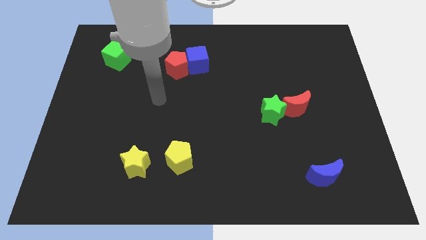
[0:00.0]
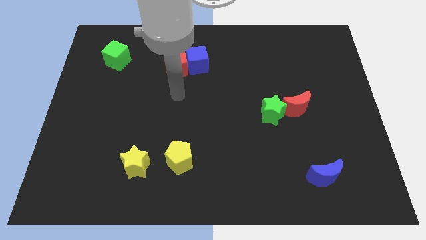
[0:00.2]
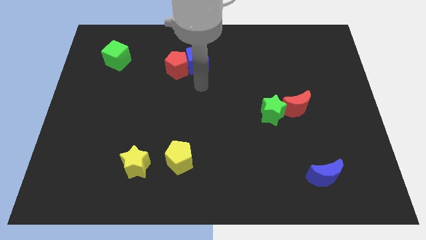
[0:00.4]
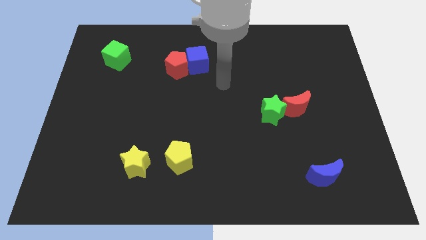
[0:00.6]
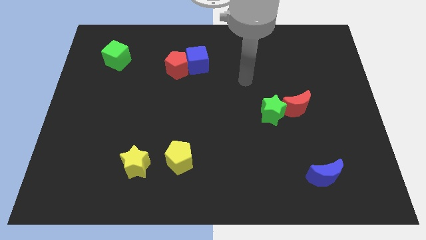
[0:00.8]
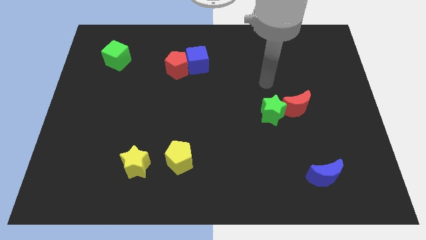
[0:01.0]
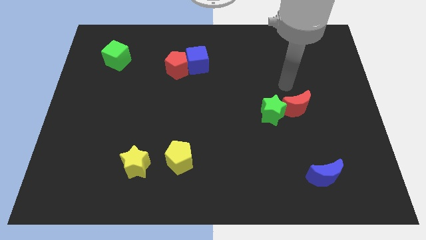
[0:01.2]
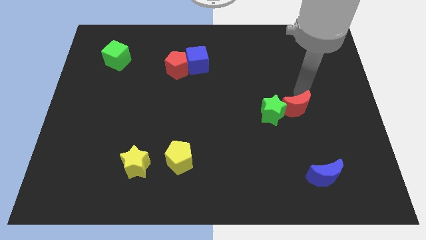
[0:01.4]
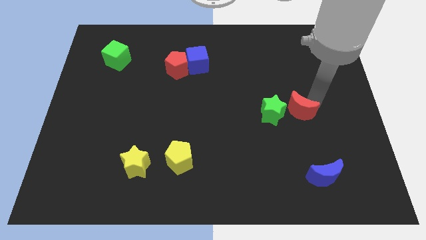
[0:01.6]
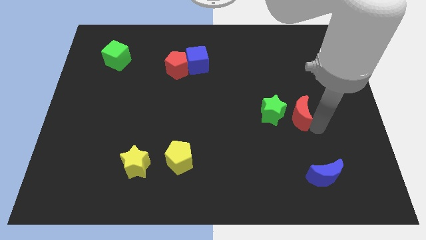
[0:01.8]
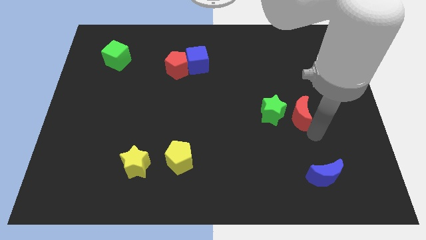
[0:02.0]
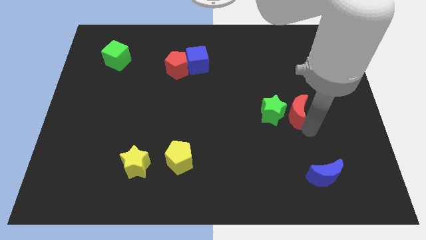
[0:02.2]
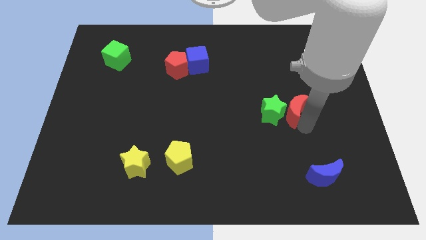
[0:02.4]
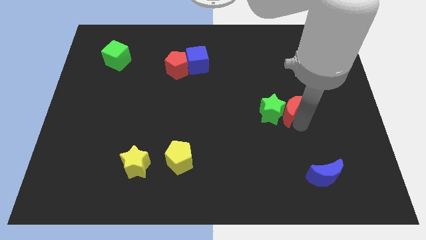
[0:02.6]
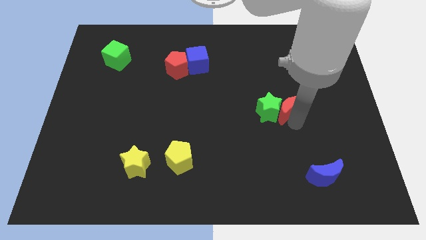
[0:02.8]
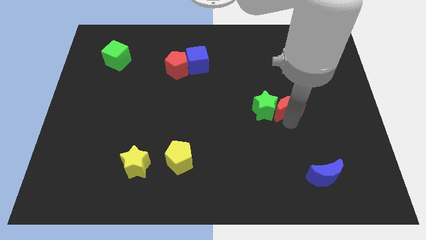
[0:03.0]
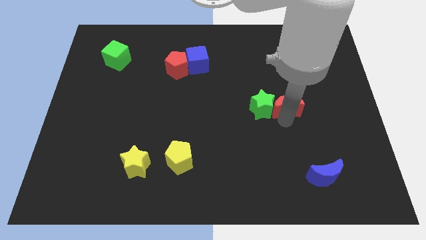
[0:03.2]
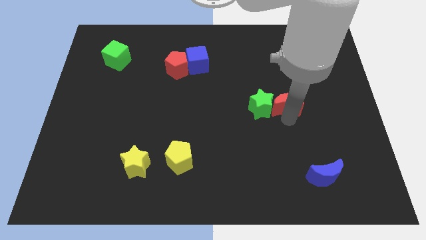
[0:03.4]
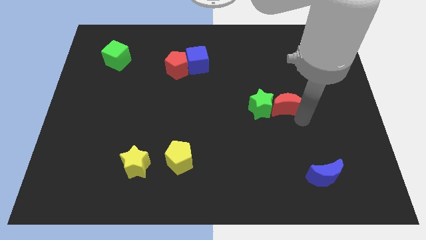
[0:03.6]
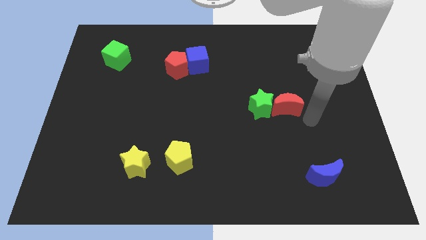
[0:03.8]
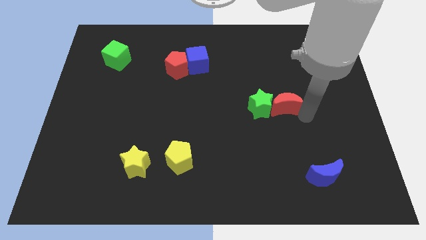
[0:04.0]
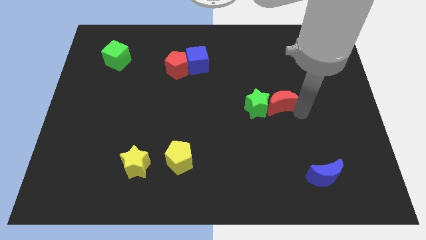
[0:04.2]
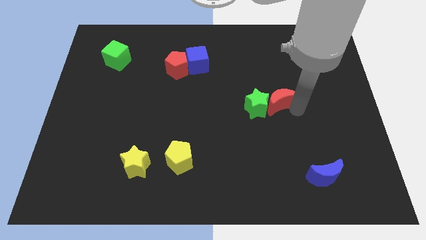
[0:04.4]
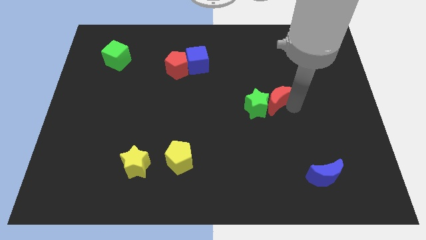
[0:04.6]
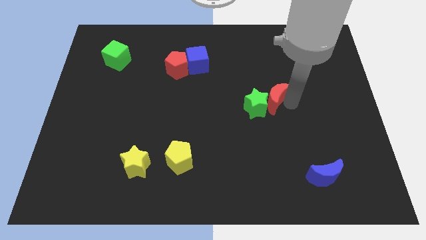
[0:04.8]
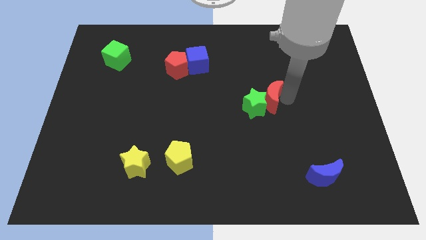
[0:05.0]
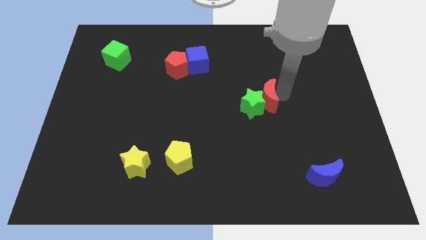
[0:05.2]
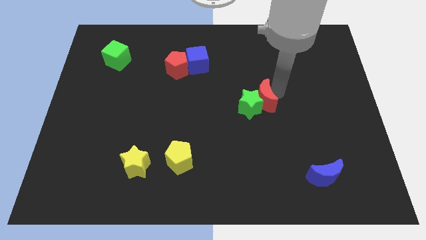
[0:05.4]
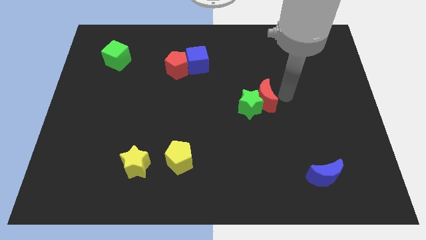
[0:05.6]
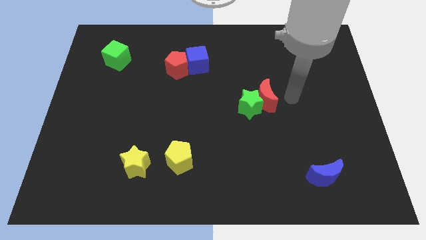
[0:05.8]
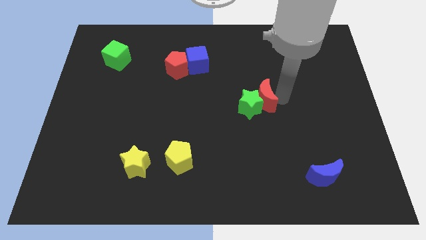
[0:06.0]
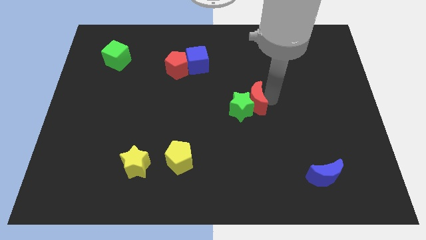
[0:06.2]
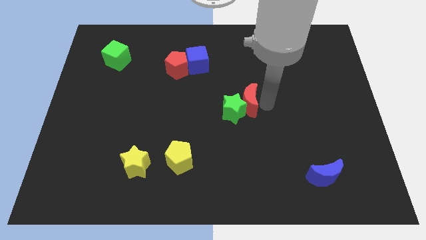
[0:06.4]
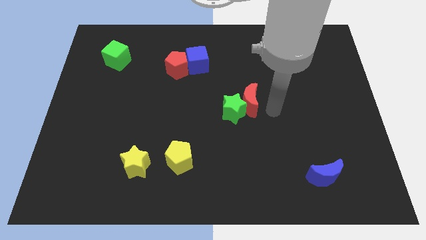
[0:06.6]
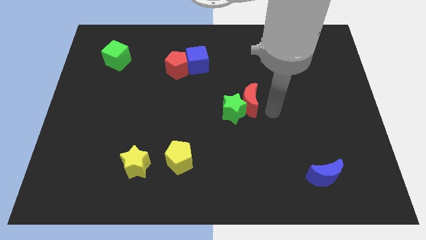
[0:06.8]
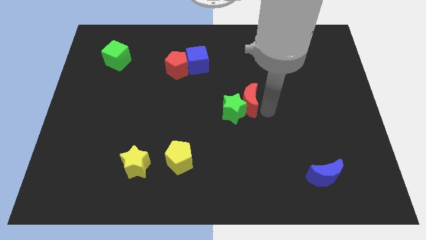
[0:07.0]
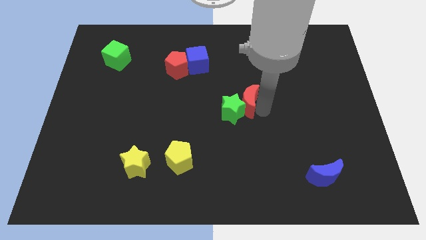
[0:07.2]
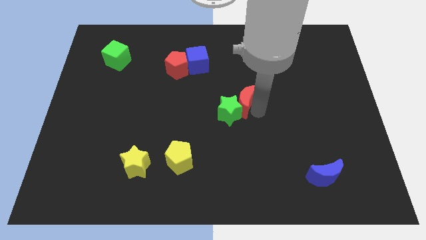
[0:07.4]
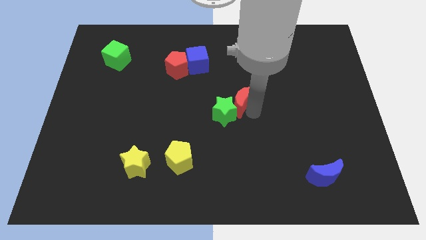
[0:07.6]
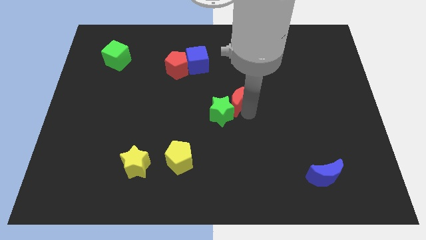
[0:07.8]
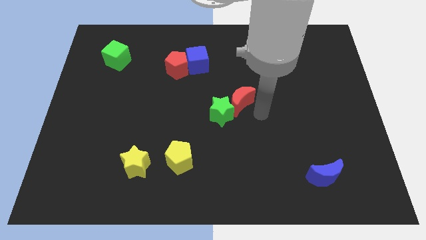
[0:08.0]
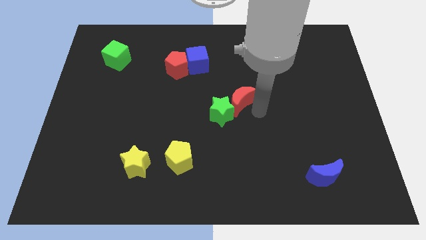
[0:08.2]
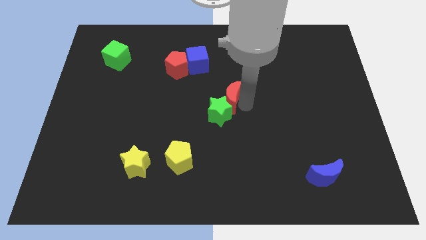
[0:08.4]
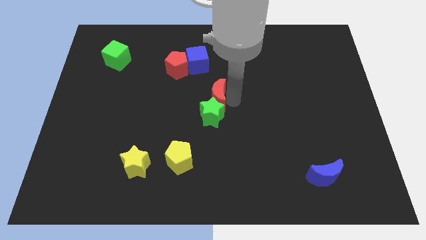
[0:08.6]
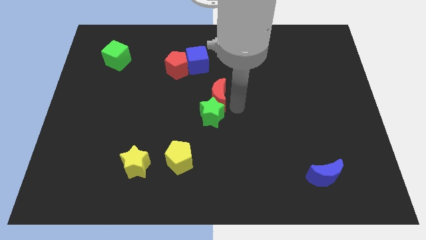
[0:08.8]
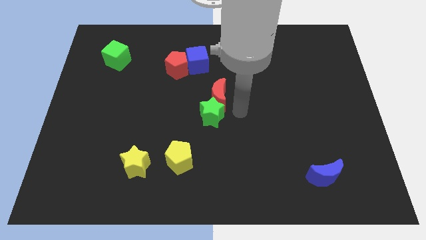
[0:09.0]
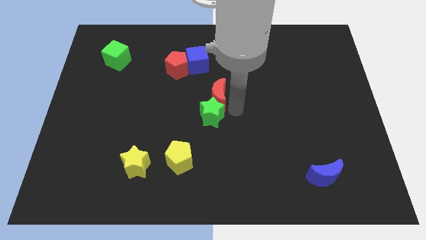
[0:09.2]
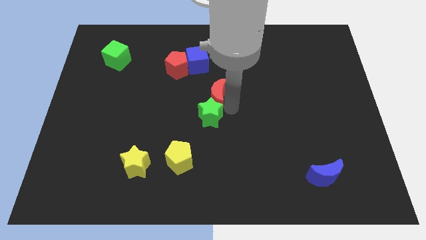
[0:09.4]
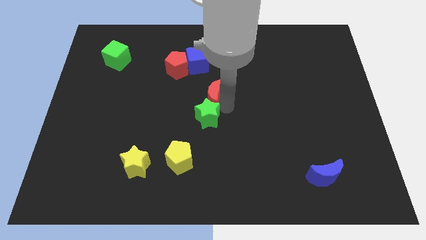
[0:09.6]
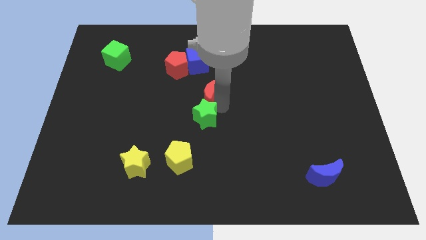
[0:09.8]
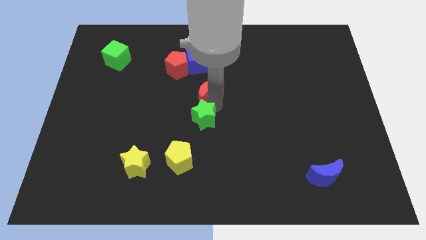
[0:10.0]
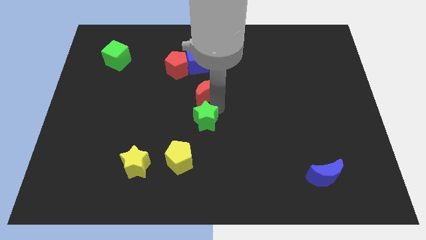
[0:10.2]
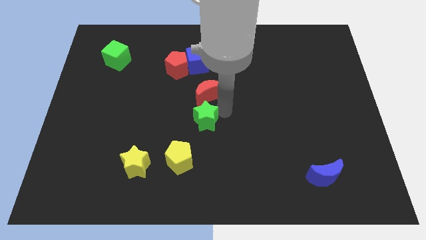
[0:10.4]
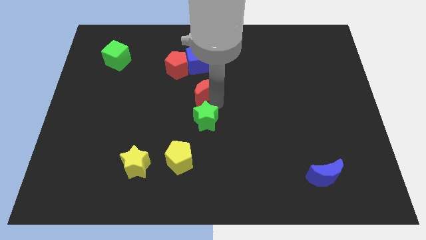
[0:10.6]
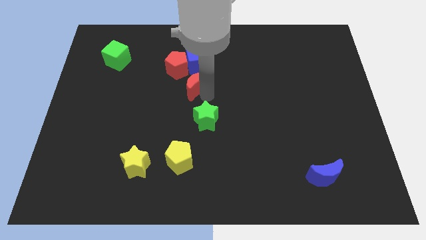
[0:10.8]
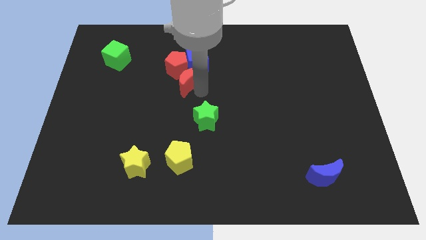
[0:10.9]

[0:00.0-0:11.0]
put the red moon towards the red pentagon

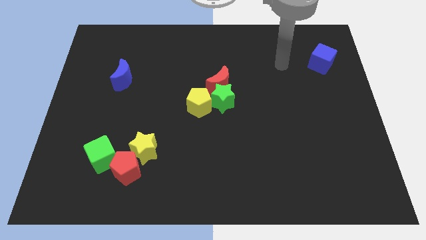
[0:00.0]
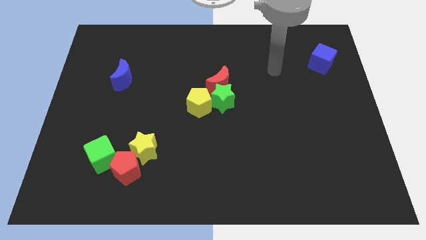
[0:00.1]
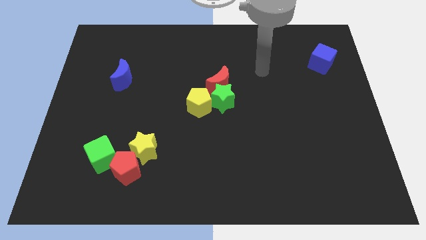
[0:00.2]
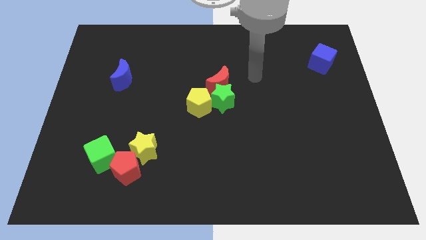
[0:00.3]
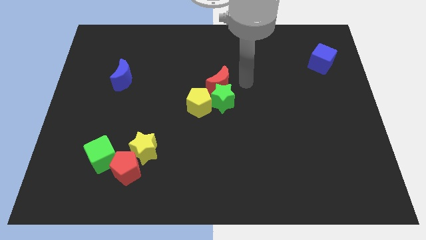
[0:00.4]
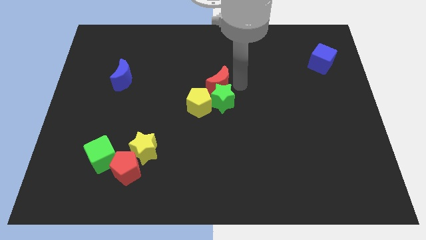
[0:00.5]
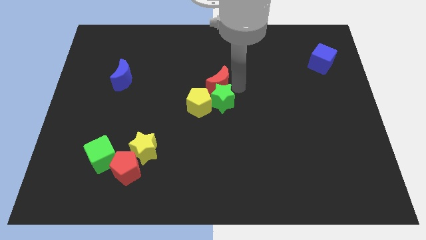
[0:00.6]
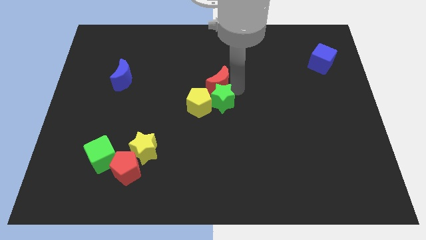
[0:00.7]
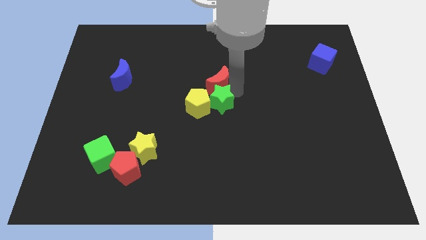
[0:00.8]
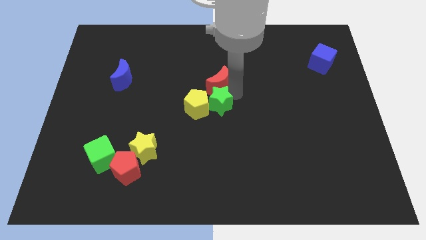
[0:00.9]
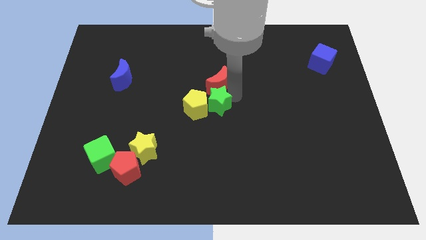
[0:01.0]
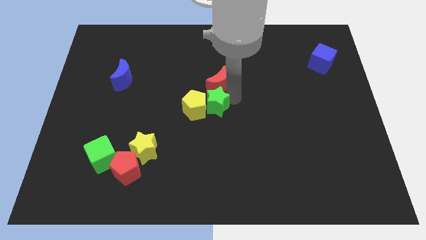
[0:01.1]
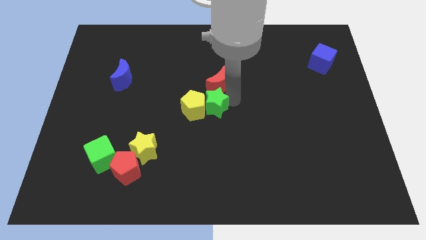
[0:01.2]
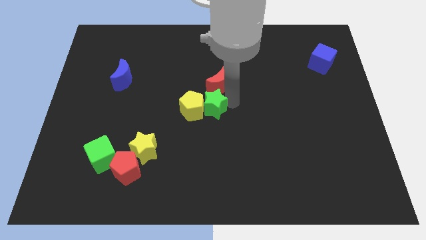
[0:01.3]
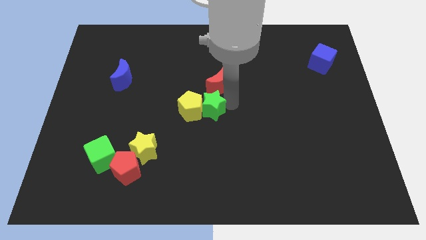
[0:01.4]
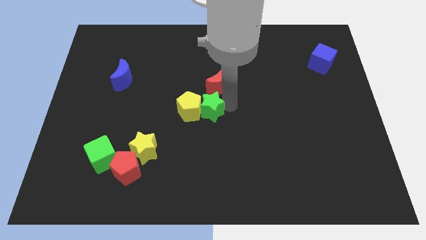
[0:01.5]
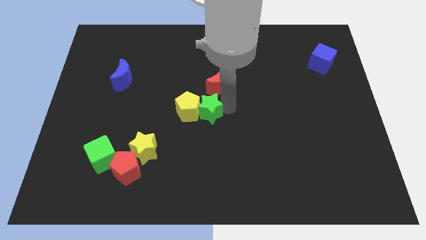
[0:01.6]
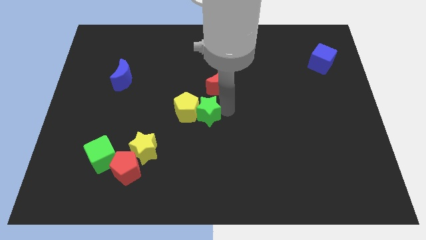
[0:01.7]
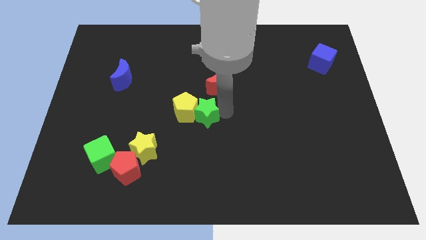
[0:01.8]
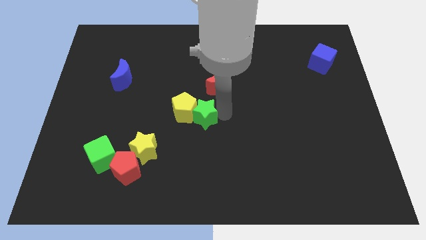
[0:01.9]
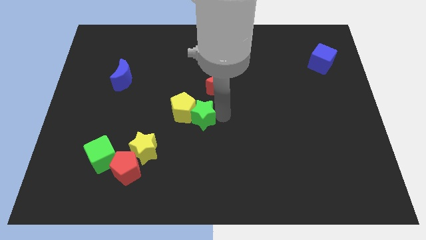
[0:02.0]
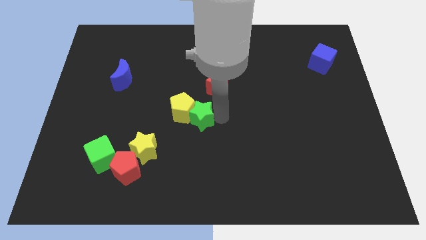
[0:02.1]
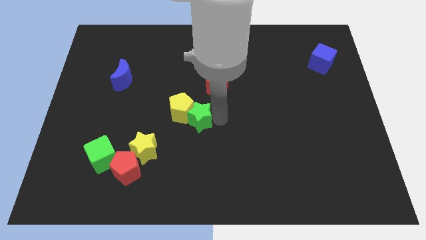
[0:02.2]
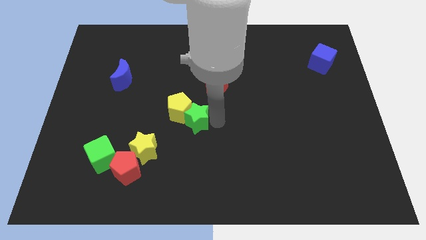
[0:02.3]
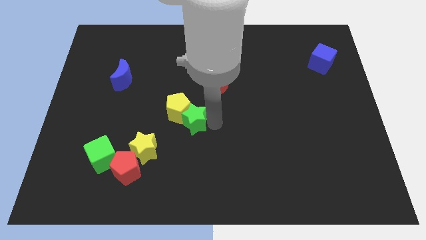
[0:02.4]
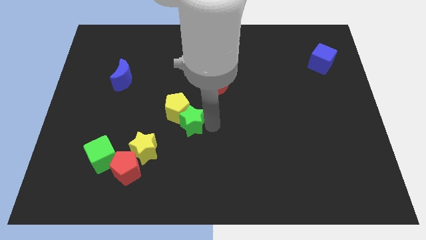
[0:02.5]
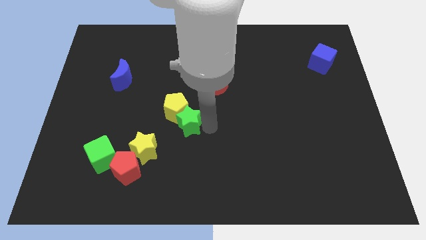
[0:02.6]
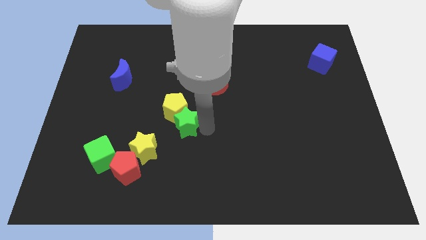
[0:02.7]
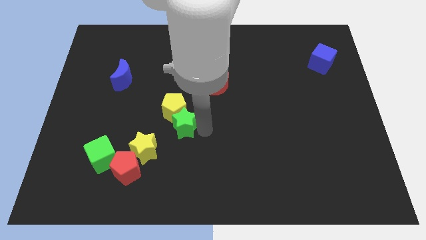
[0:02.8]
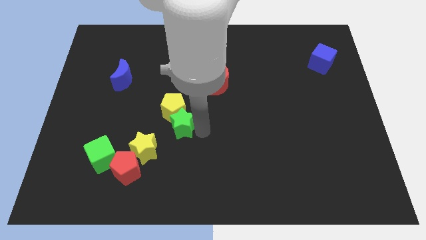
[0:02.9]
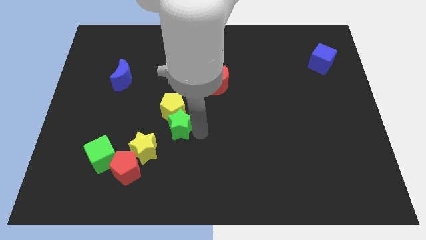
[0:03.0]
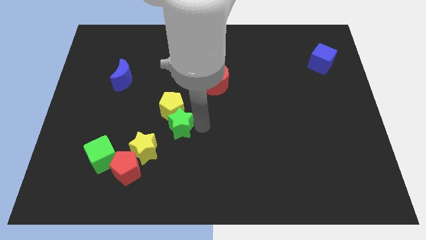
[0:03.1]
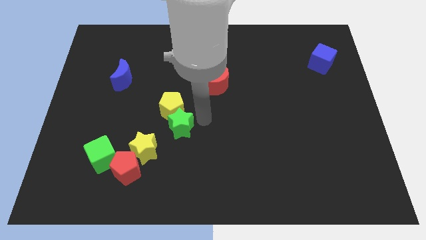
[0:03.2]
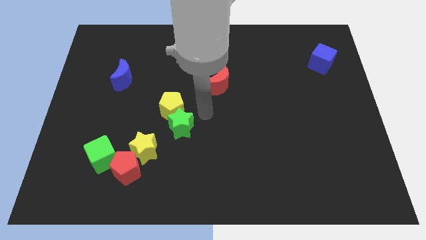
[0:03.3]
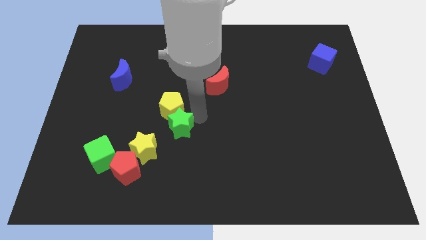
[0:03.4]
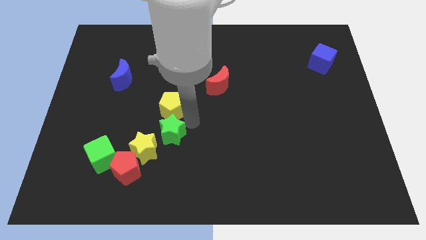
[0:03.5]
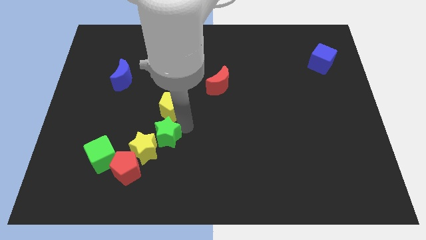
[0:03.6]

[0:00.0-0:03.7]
push the green star to the yellow star
